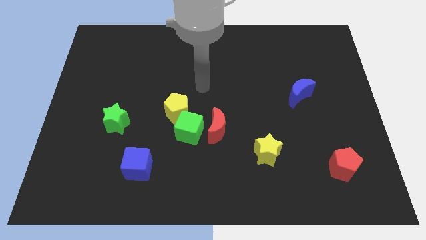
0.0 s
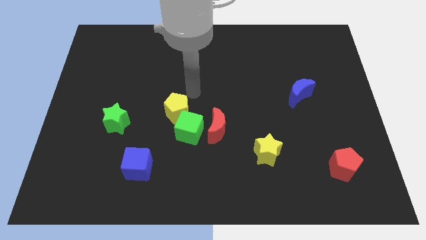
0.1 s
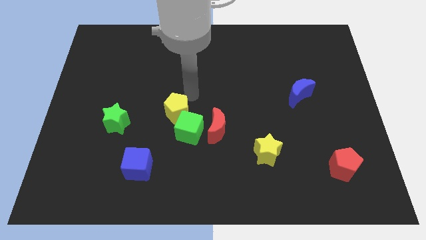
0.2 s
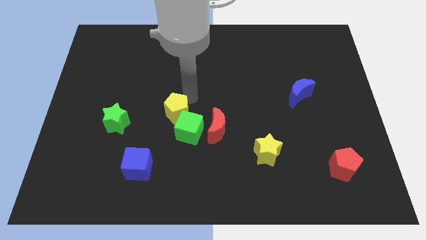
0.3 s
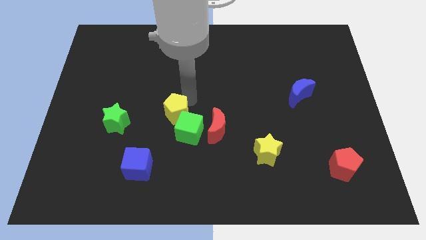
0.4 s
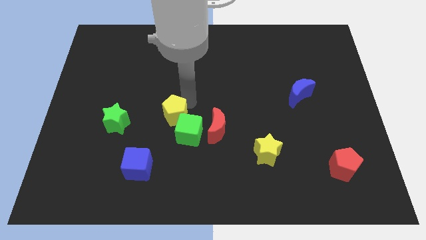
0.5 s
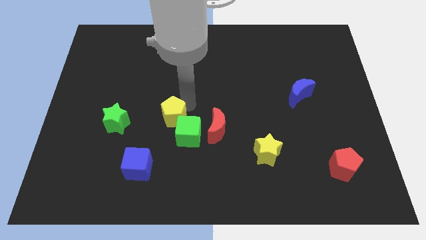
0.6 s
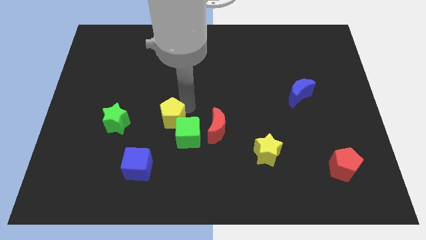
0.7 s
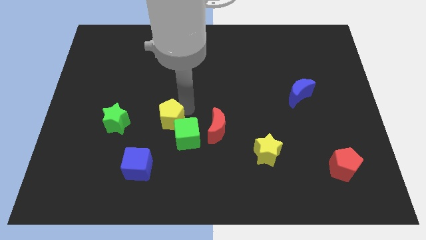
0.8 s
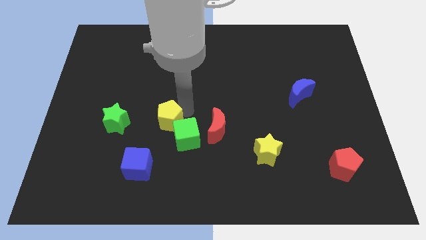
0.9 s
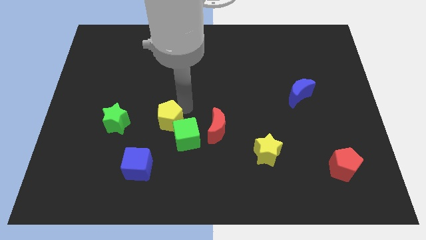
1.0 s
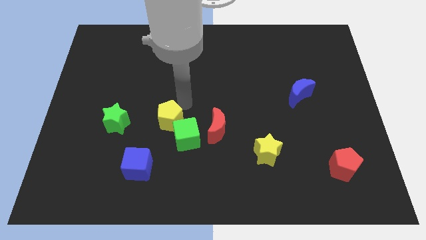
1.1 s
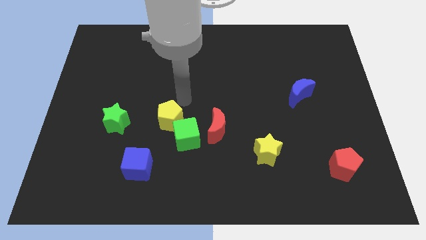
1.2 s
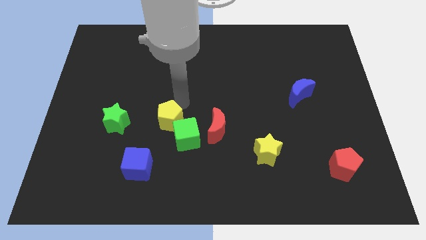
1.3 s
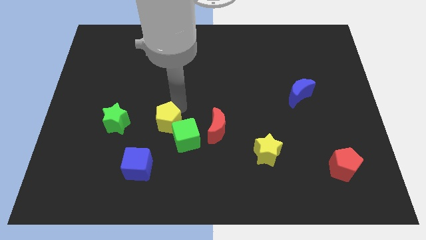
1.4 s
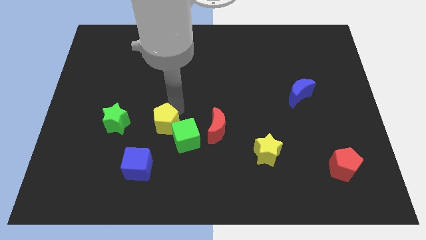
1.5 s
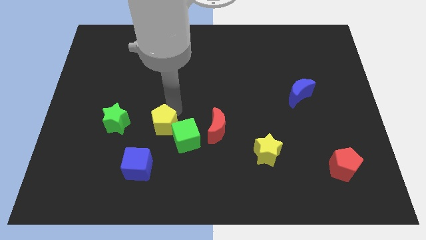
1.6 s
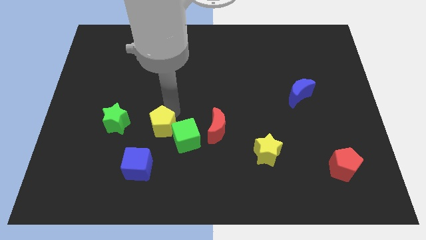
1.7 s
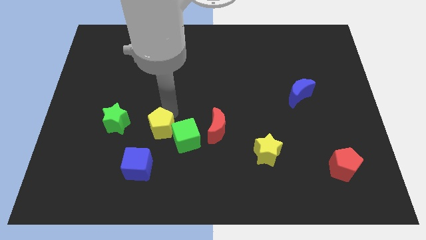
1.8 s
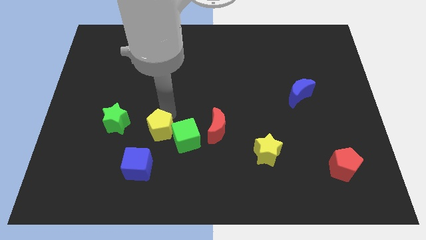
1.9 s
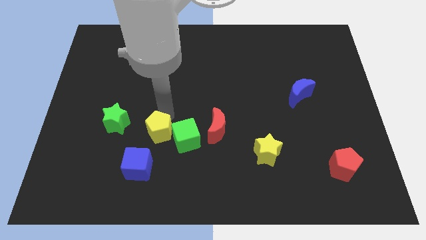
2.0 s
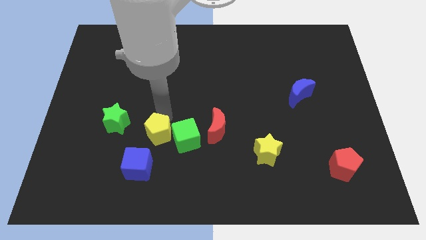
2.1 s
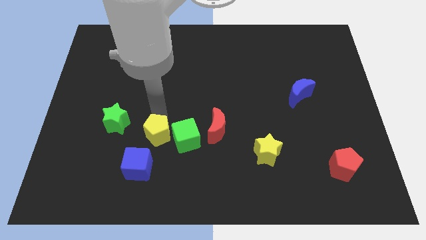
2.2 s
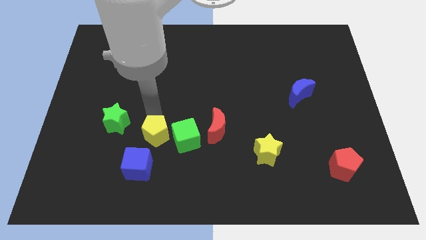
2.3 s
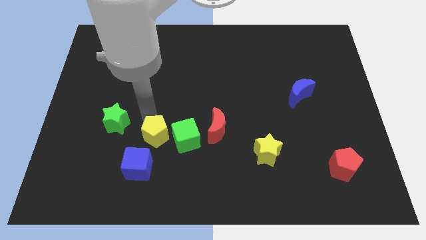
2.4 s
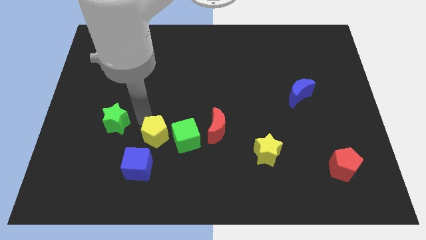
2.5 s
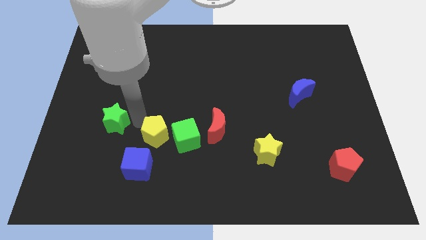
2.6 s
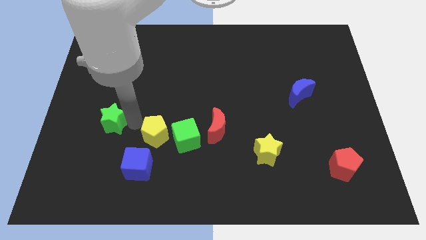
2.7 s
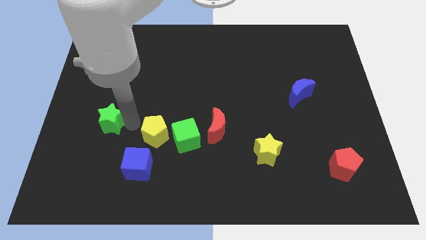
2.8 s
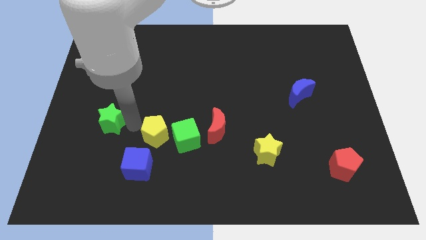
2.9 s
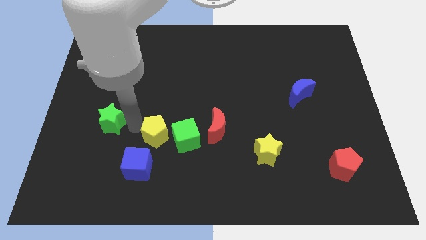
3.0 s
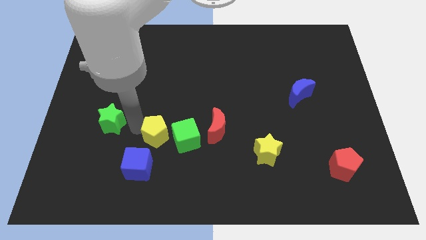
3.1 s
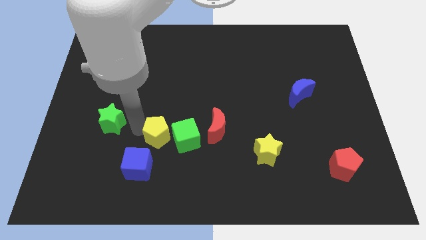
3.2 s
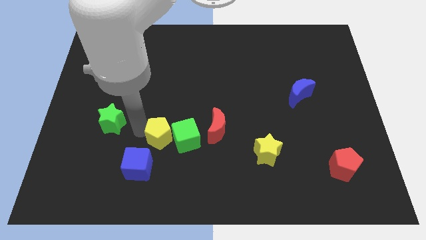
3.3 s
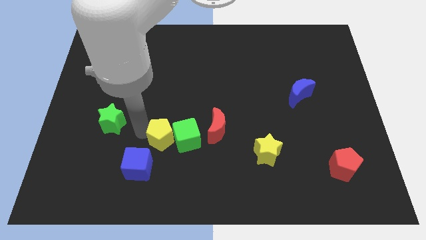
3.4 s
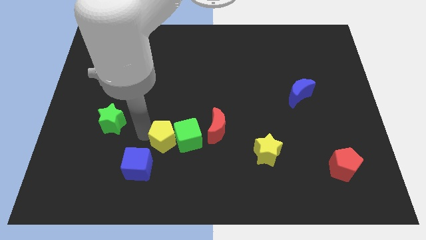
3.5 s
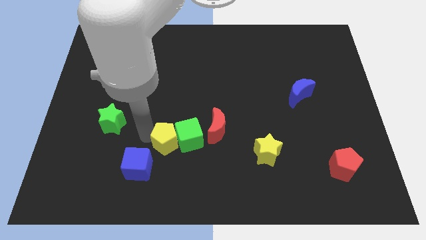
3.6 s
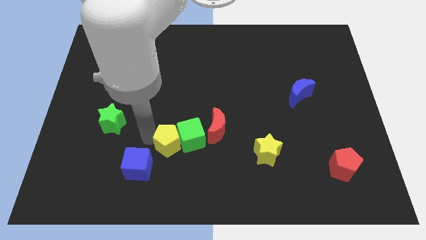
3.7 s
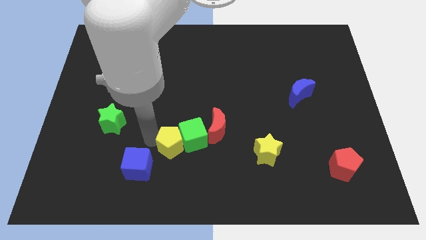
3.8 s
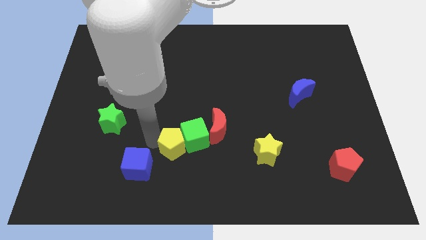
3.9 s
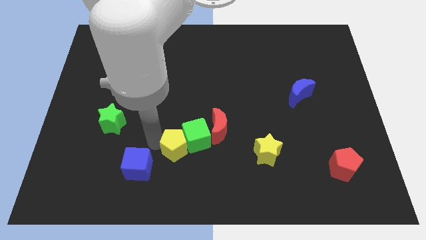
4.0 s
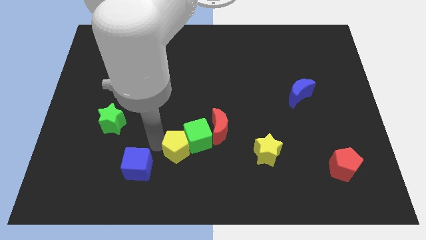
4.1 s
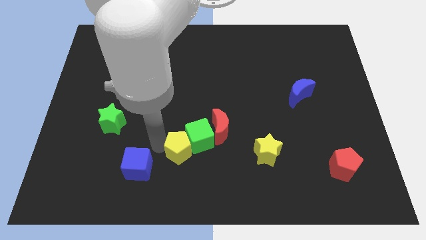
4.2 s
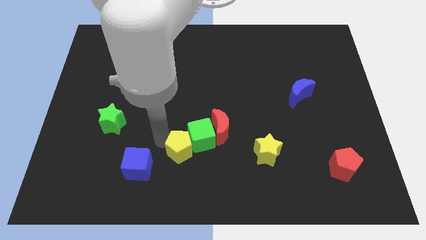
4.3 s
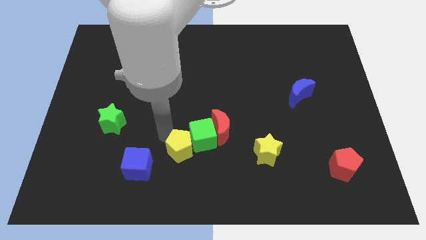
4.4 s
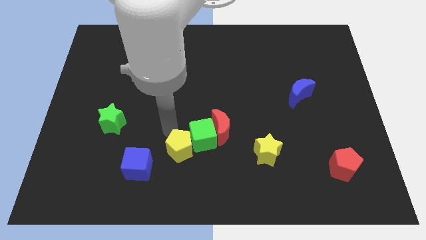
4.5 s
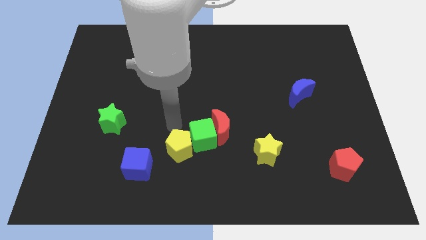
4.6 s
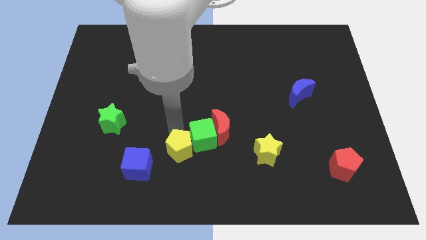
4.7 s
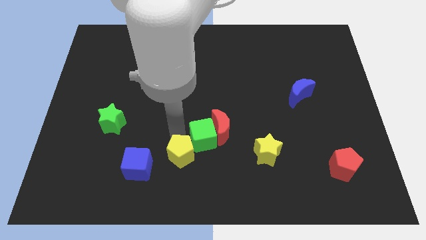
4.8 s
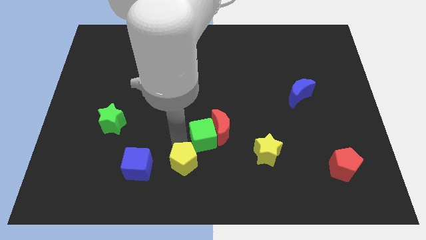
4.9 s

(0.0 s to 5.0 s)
move the yellow pentagon to the bottom side

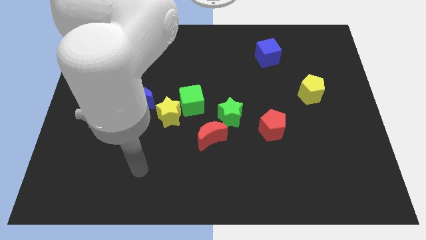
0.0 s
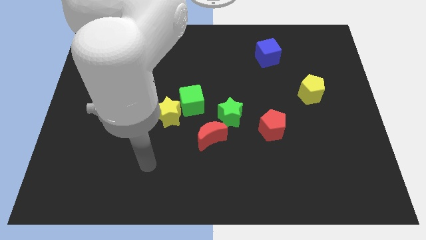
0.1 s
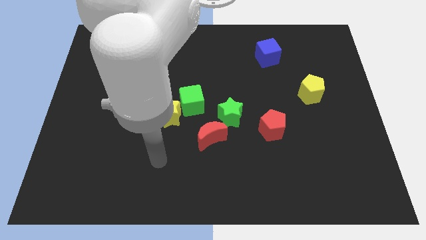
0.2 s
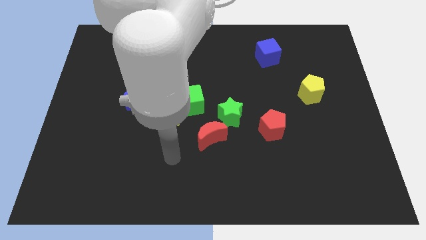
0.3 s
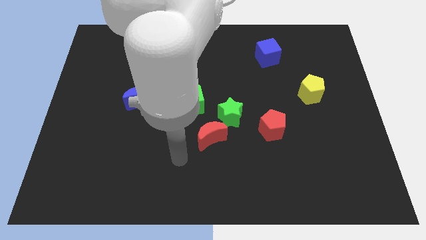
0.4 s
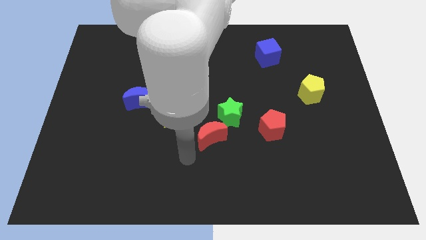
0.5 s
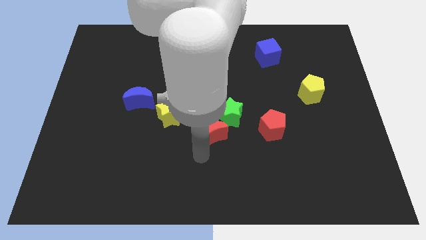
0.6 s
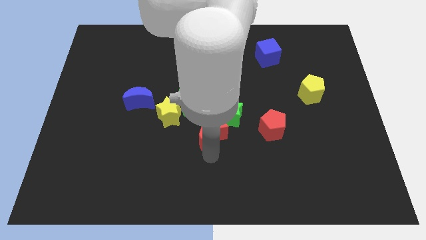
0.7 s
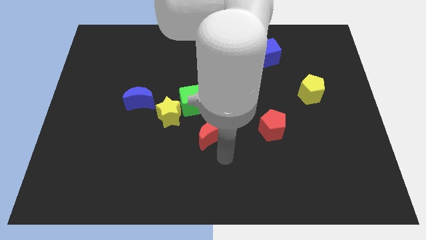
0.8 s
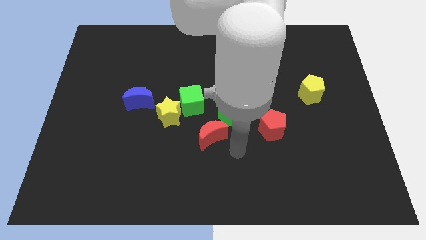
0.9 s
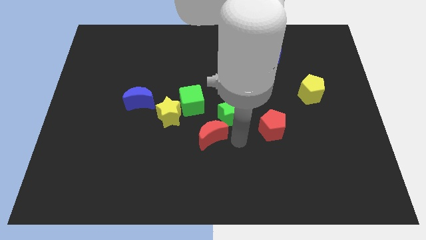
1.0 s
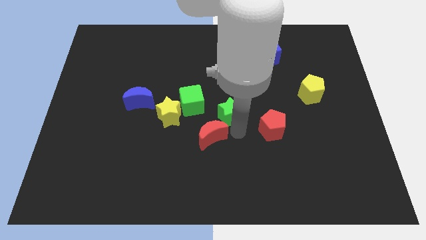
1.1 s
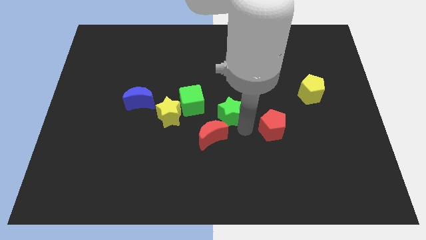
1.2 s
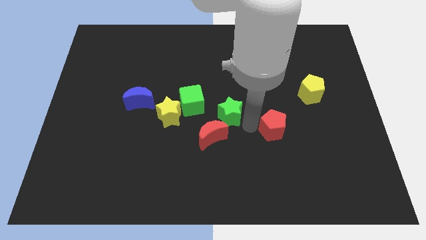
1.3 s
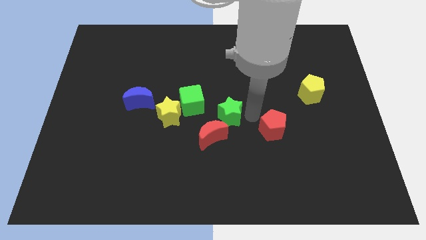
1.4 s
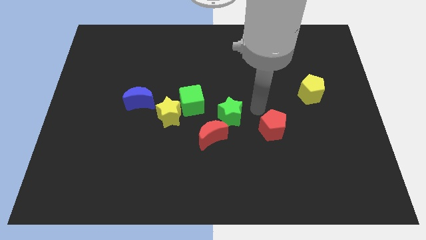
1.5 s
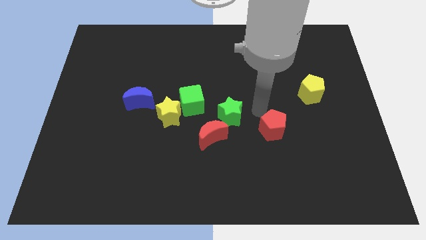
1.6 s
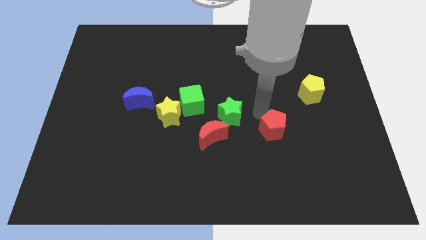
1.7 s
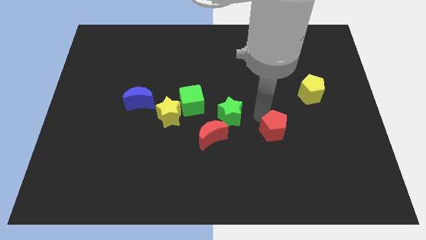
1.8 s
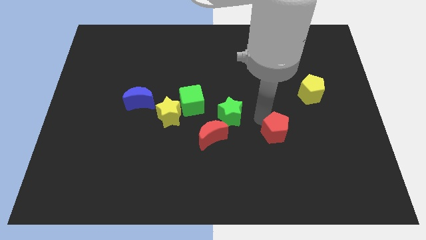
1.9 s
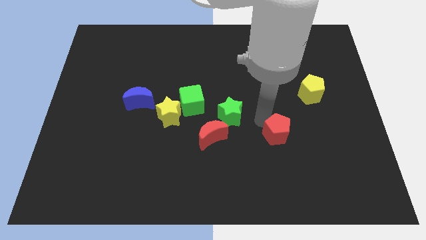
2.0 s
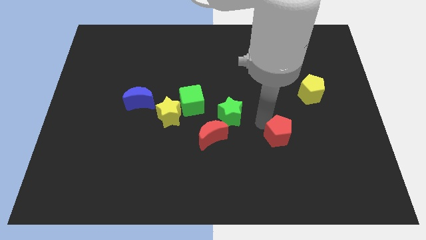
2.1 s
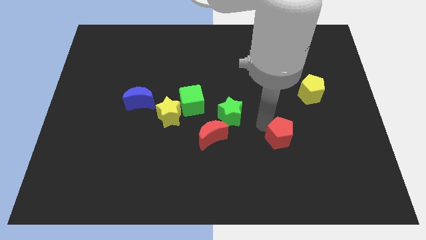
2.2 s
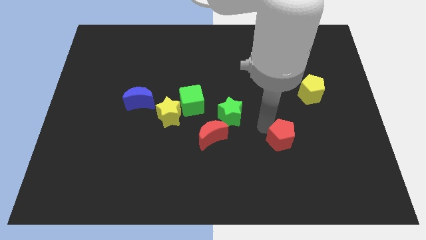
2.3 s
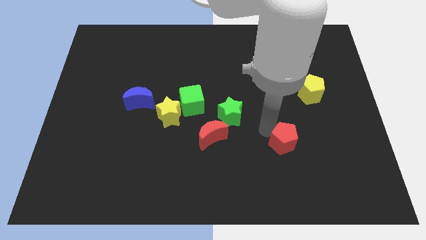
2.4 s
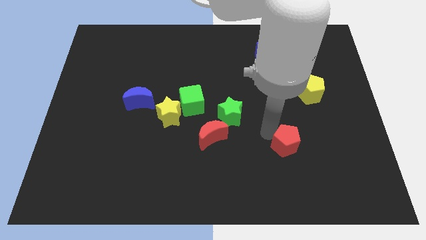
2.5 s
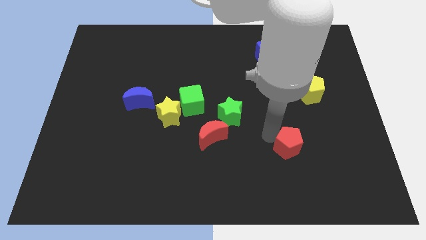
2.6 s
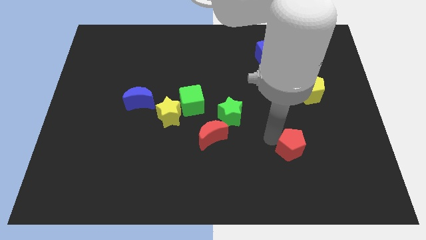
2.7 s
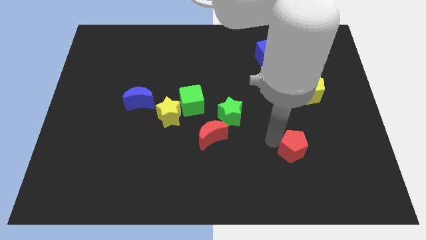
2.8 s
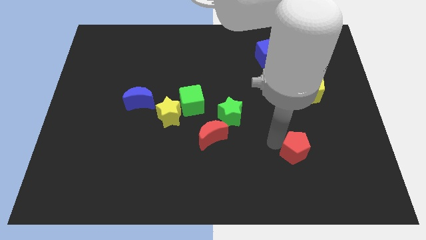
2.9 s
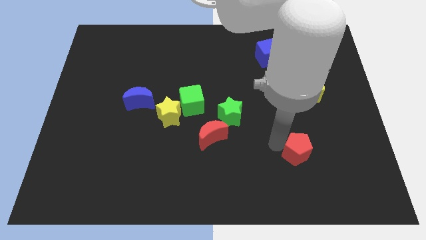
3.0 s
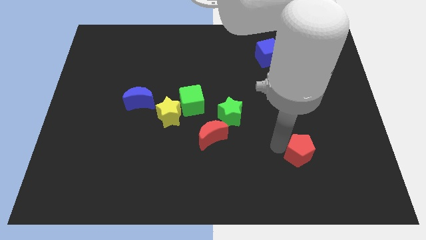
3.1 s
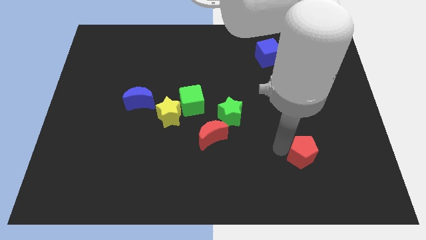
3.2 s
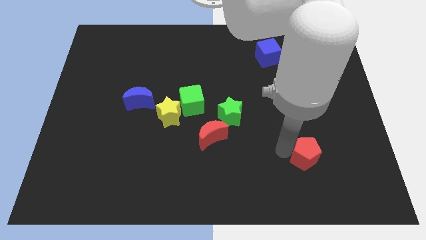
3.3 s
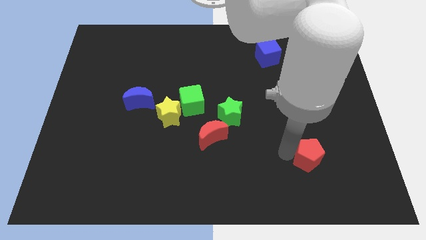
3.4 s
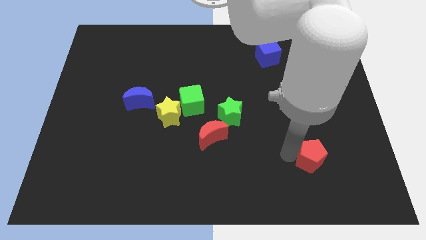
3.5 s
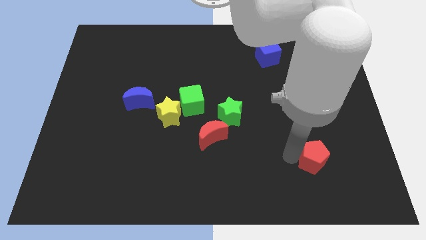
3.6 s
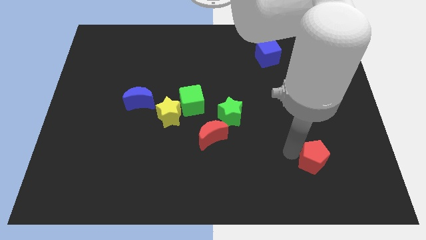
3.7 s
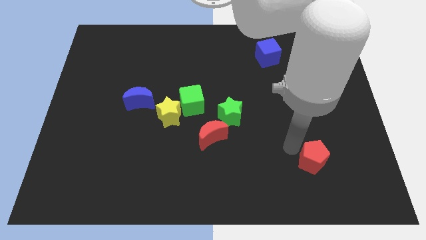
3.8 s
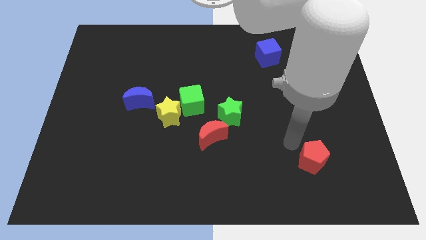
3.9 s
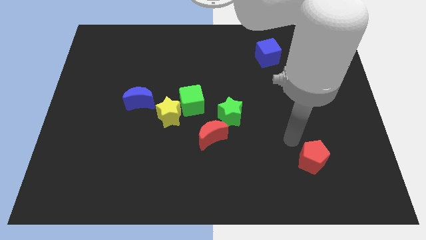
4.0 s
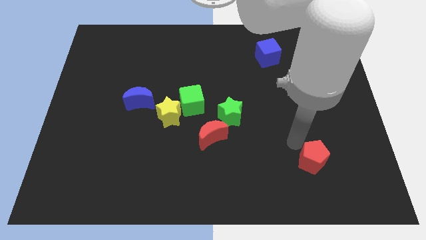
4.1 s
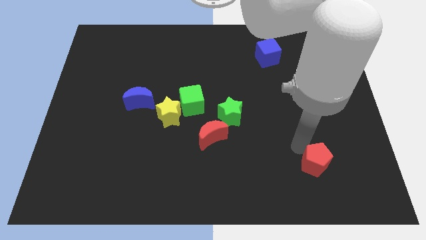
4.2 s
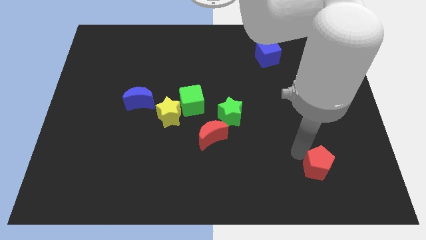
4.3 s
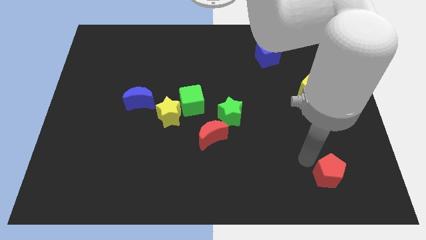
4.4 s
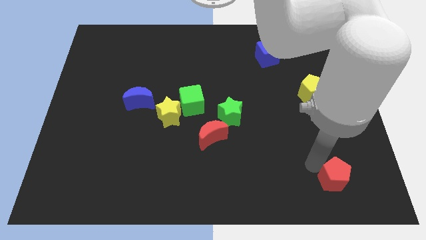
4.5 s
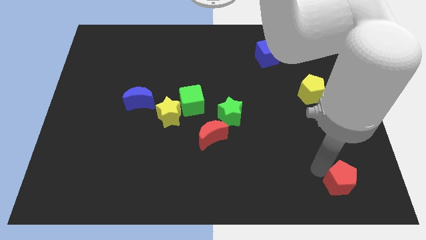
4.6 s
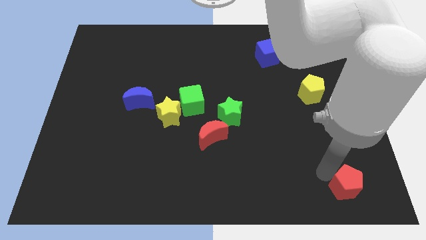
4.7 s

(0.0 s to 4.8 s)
move the red pentagon to the bottom right
